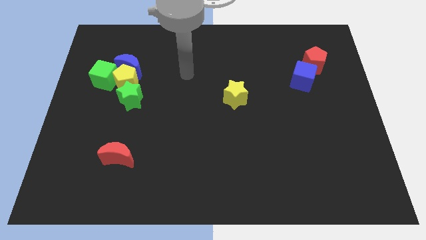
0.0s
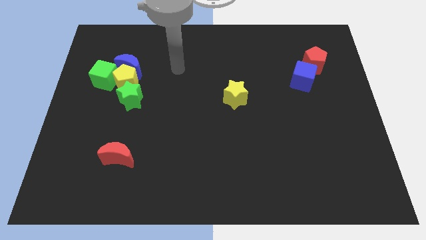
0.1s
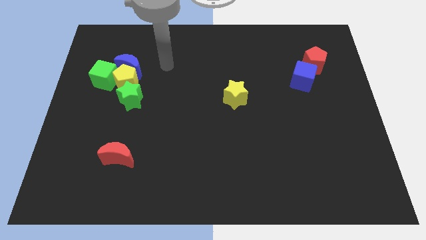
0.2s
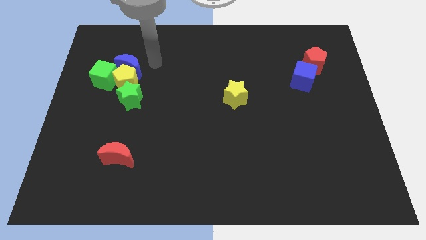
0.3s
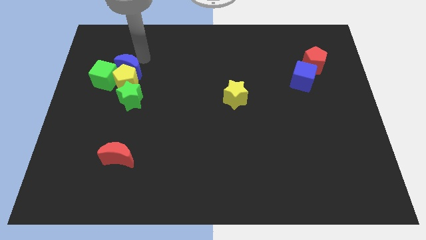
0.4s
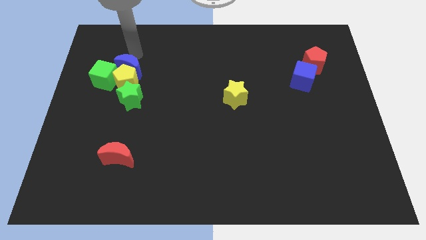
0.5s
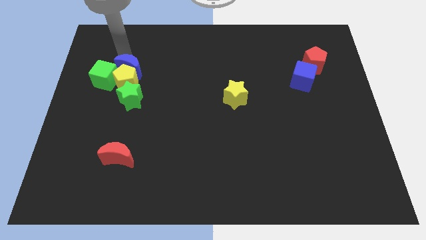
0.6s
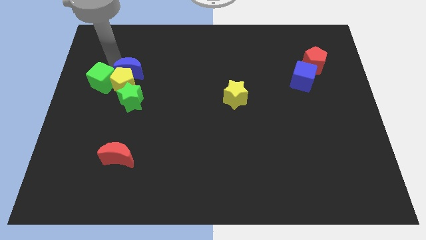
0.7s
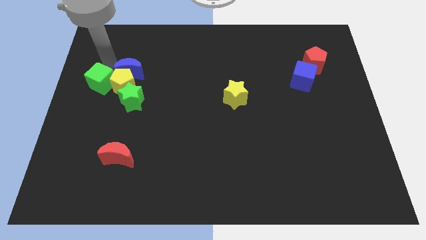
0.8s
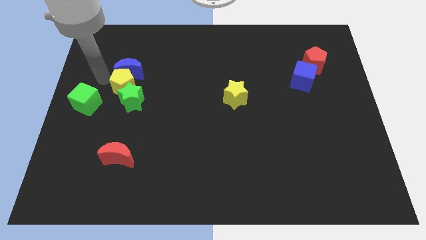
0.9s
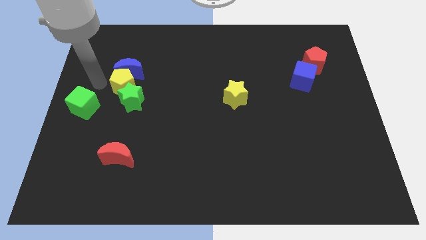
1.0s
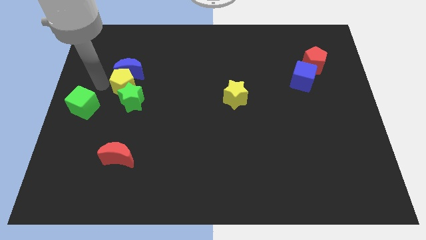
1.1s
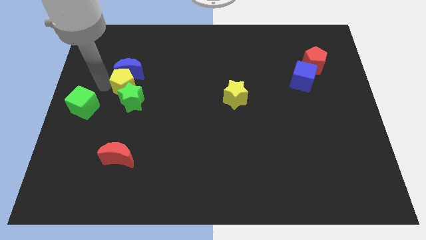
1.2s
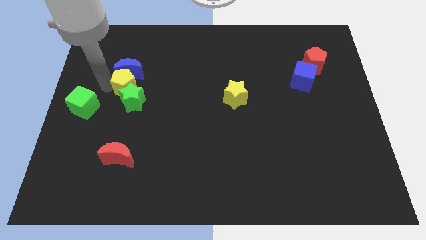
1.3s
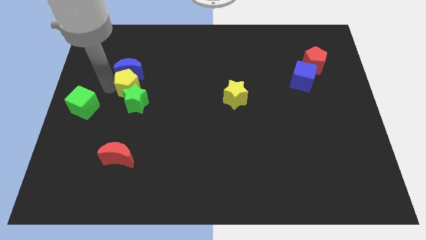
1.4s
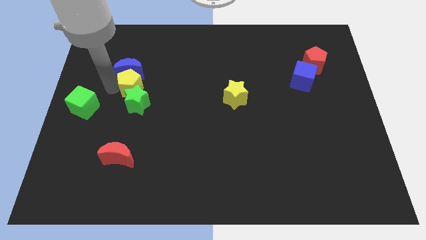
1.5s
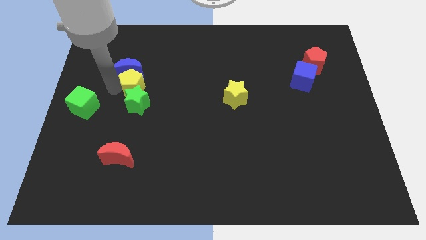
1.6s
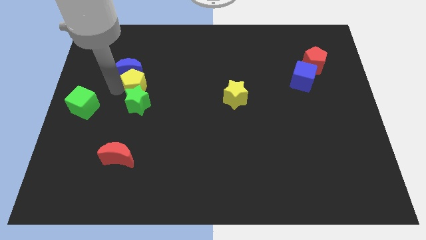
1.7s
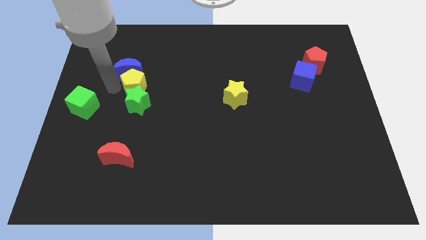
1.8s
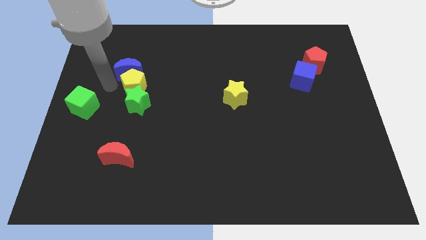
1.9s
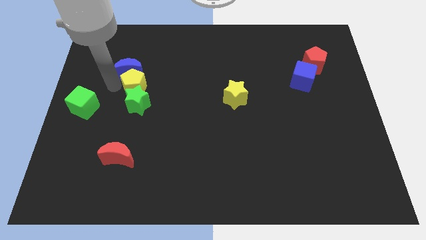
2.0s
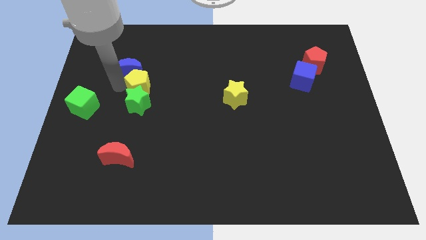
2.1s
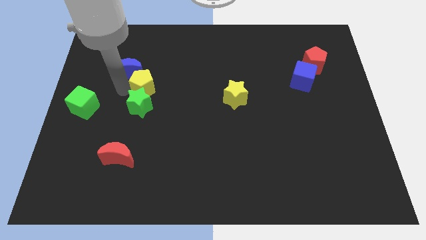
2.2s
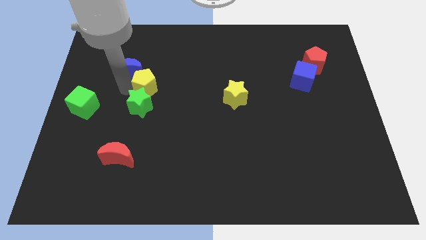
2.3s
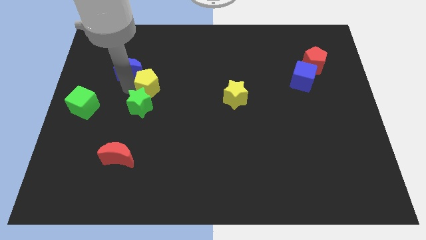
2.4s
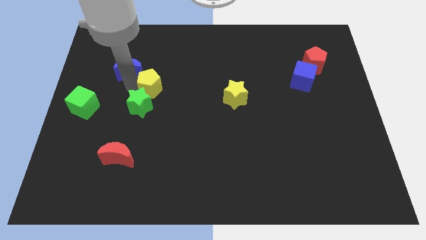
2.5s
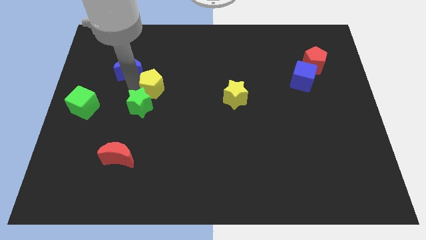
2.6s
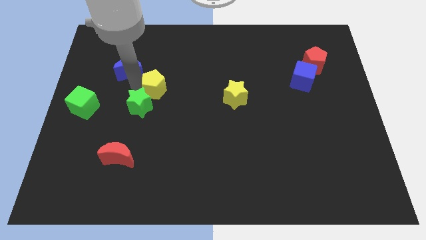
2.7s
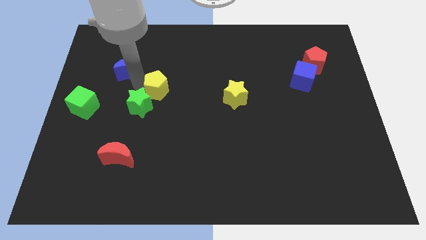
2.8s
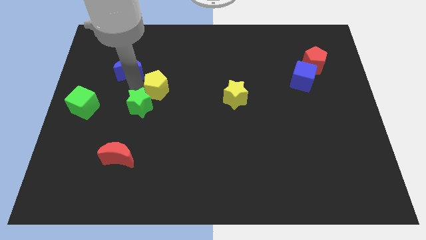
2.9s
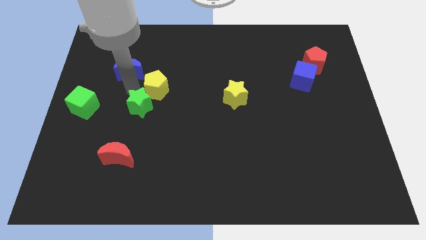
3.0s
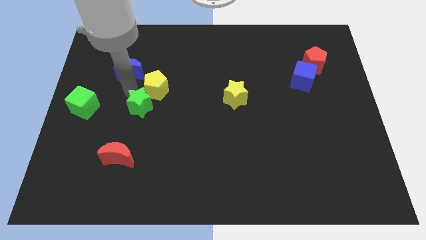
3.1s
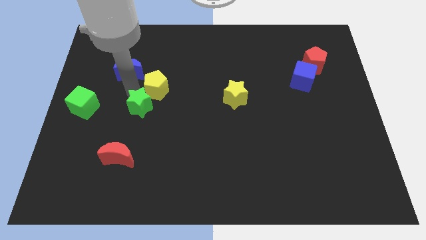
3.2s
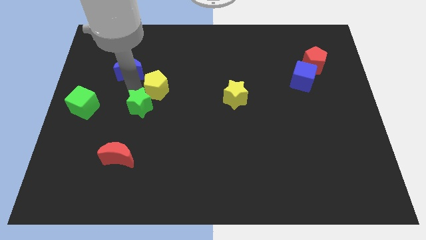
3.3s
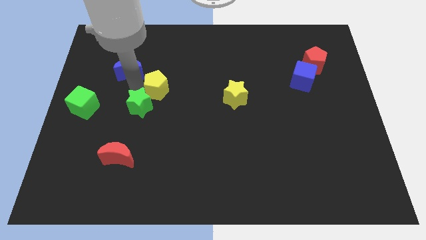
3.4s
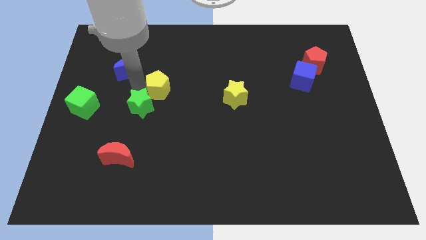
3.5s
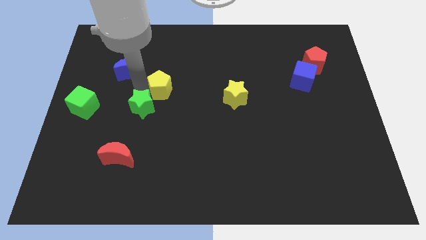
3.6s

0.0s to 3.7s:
pull the yellow pentagon apart from the blue moon, green cube, and green star

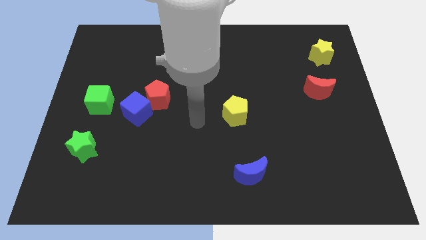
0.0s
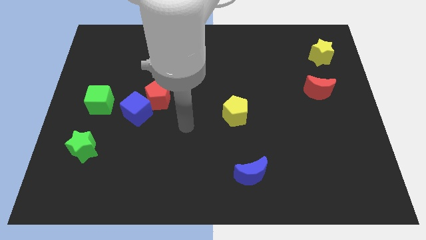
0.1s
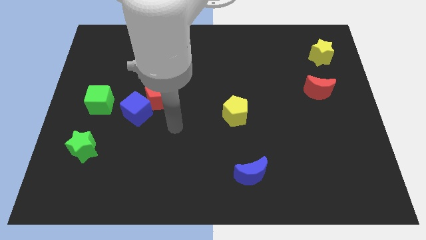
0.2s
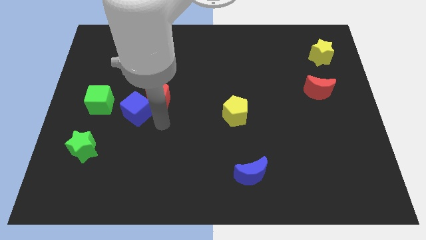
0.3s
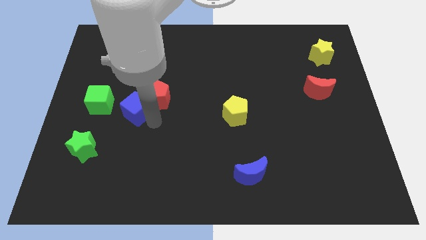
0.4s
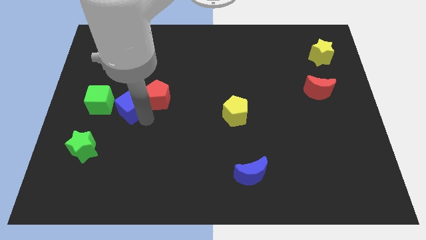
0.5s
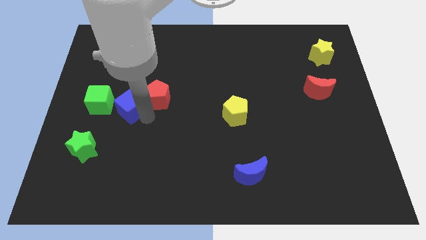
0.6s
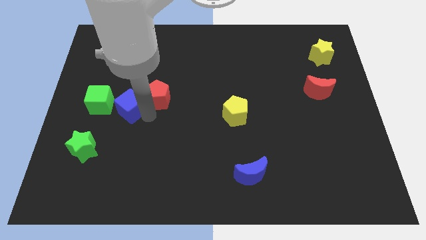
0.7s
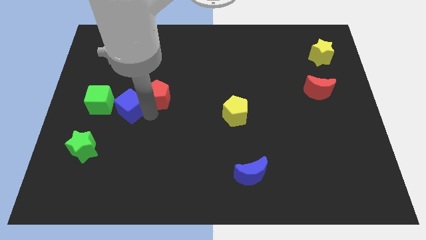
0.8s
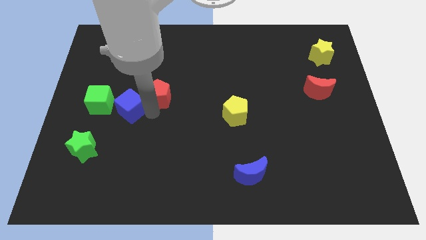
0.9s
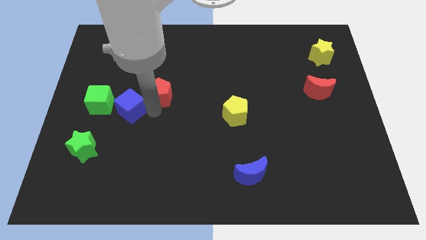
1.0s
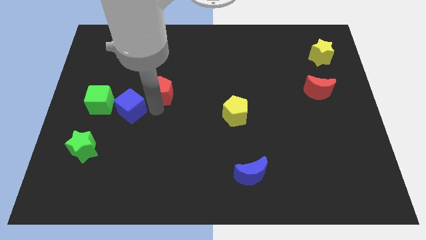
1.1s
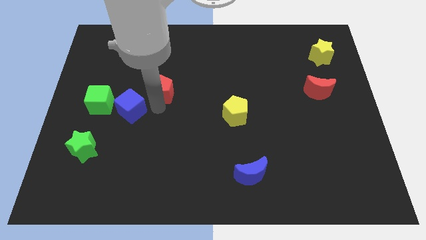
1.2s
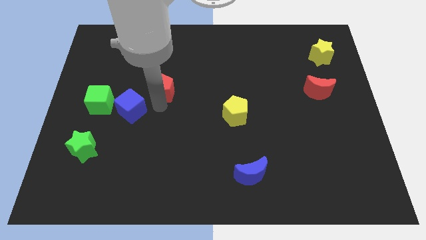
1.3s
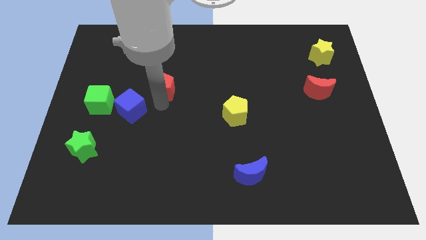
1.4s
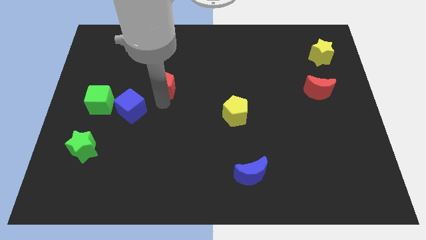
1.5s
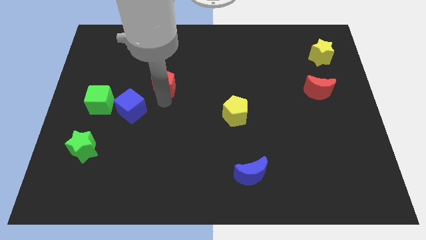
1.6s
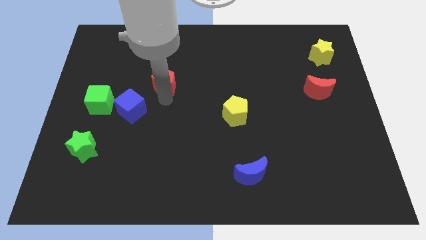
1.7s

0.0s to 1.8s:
move the red pentagon away from the blue cube

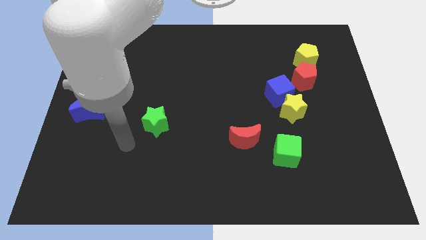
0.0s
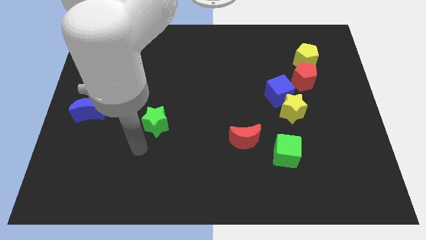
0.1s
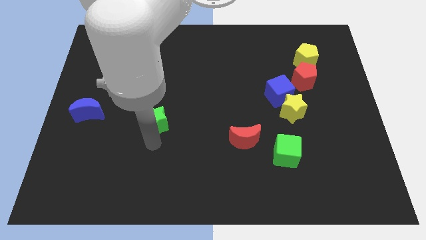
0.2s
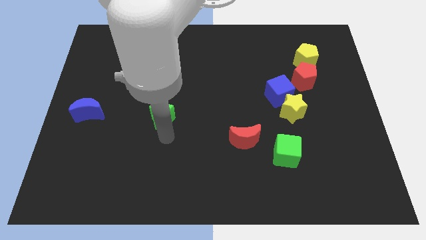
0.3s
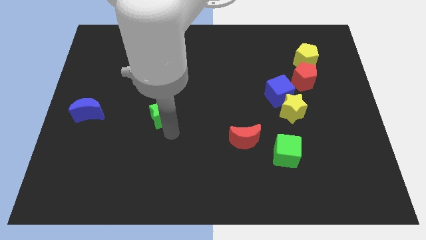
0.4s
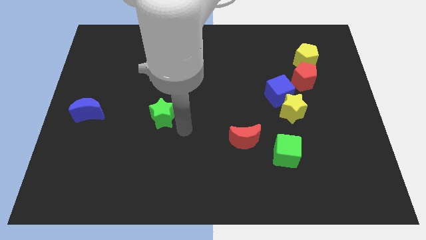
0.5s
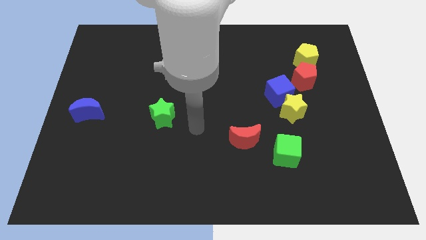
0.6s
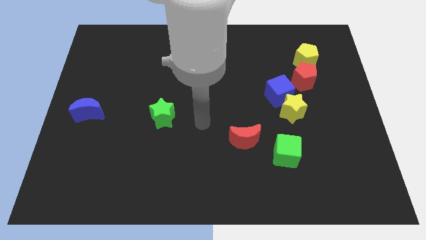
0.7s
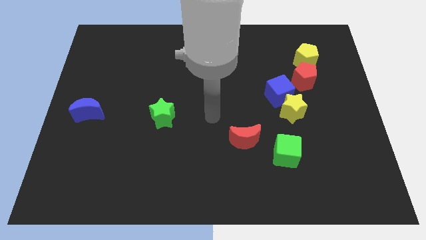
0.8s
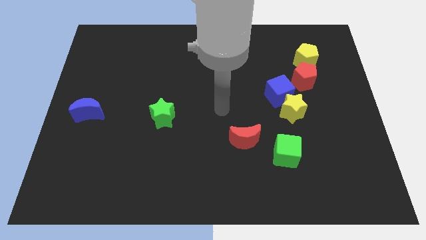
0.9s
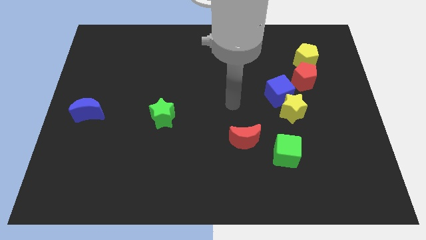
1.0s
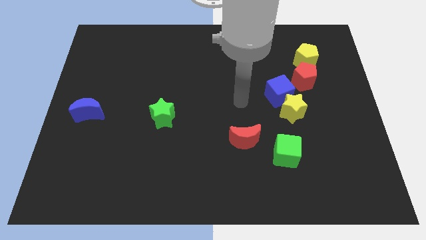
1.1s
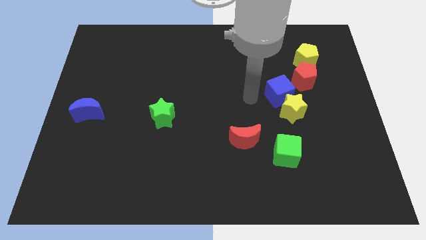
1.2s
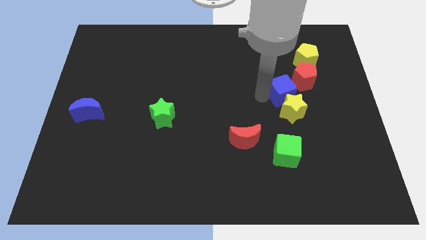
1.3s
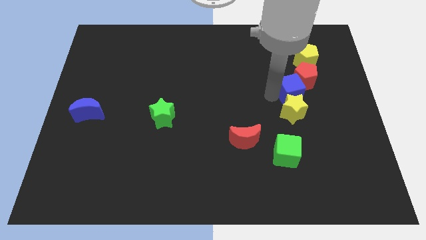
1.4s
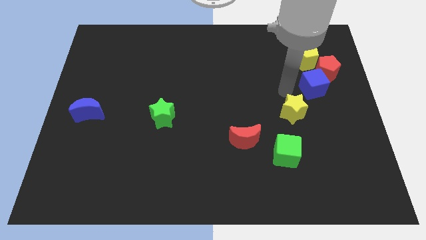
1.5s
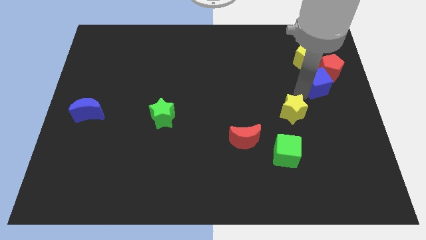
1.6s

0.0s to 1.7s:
separate the yellow star from the blue cube

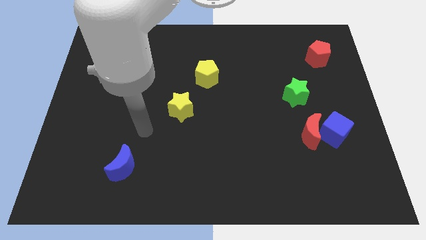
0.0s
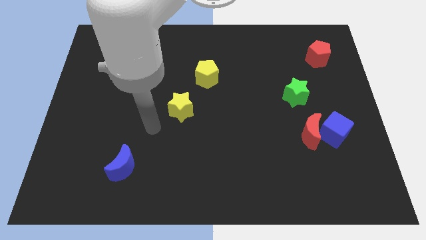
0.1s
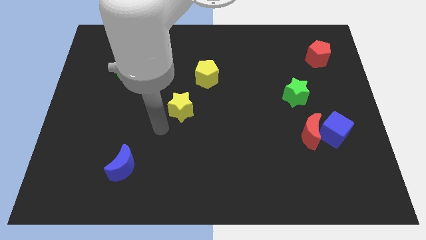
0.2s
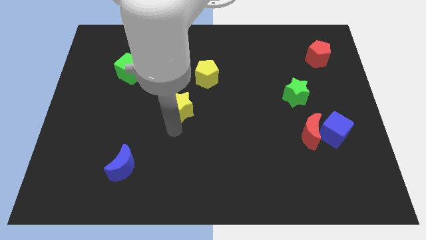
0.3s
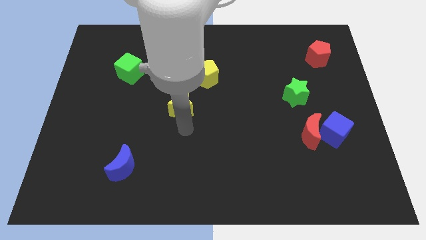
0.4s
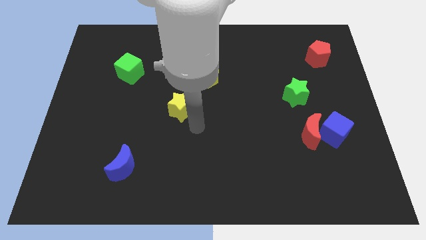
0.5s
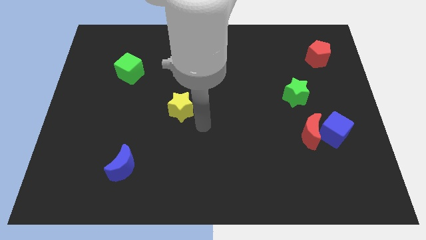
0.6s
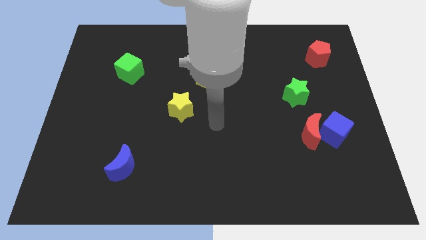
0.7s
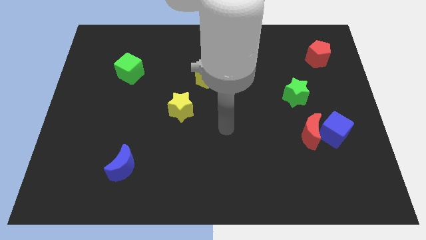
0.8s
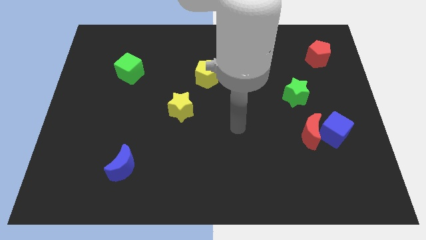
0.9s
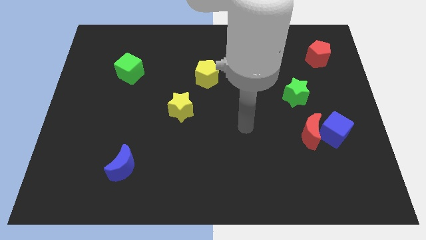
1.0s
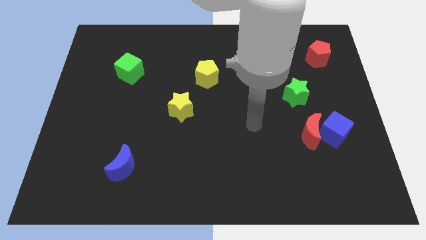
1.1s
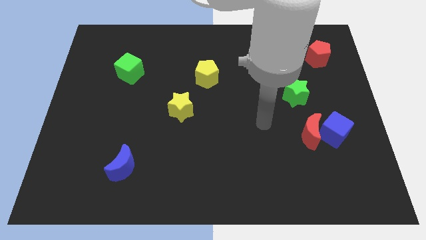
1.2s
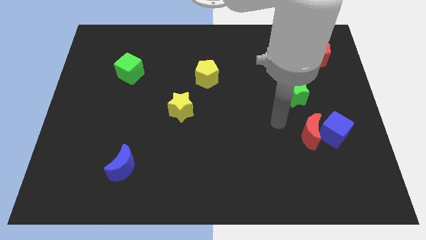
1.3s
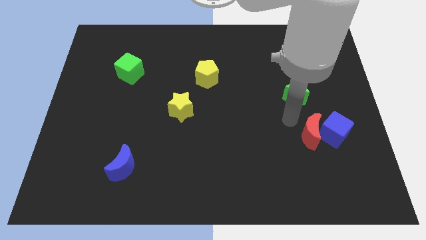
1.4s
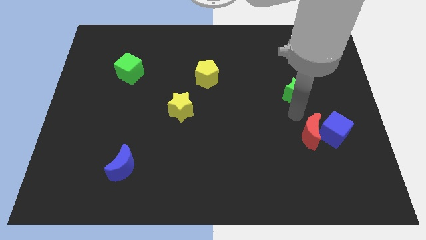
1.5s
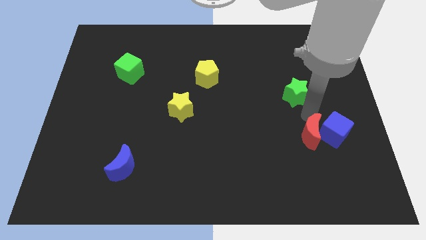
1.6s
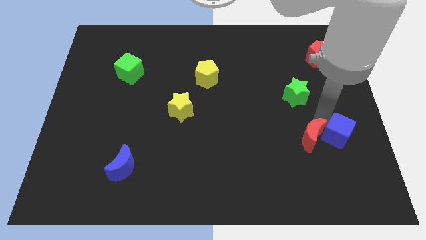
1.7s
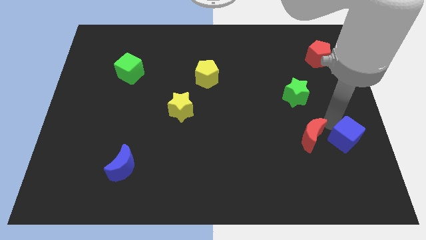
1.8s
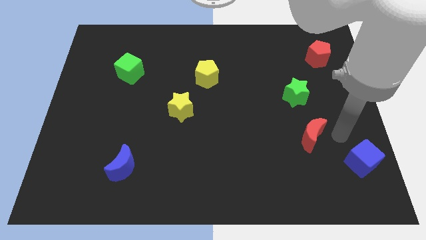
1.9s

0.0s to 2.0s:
move the red moon away from the blue cube

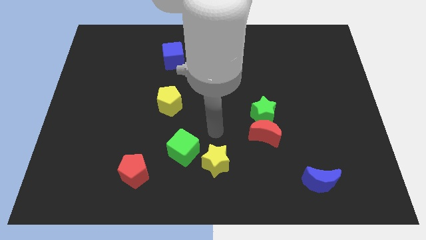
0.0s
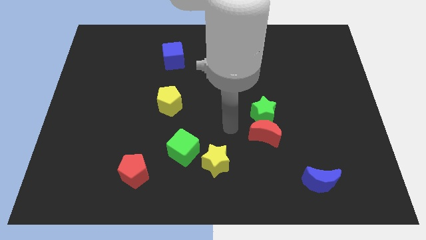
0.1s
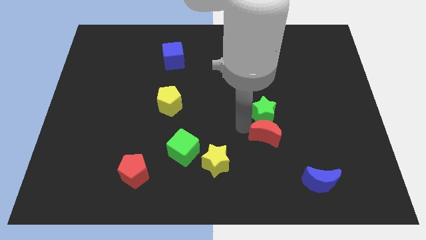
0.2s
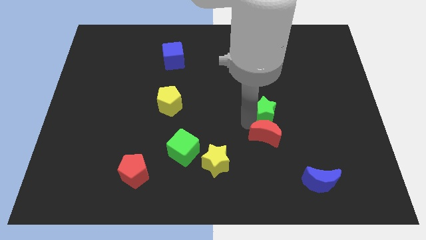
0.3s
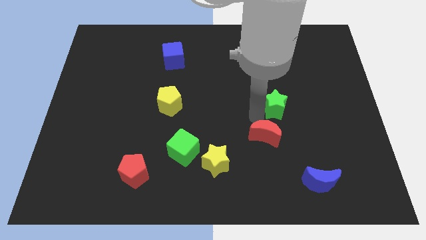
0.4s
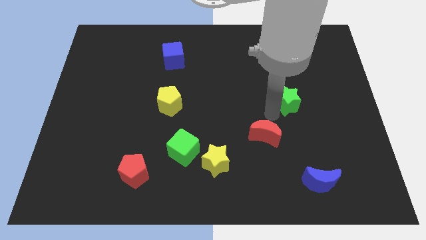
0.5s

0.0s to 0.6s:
move the red moon away from the green star
